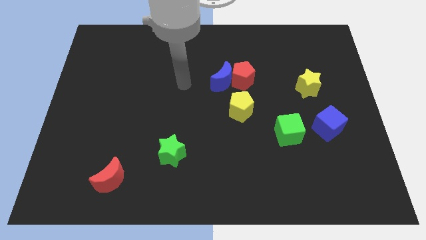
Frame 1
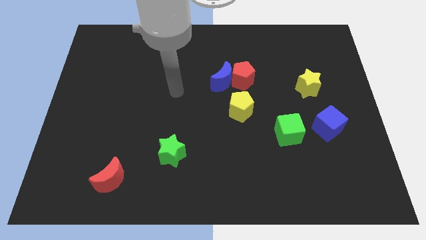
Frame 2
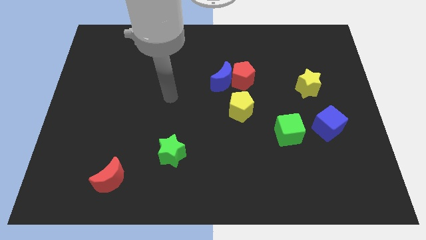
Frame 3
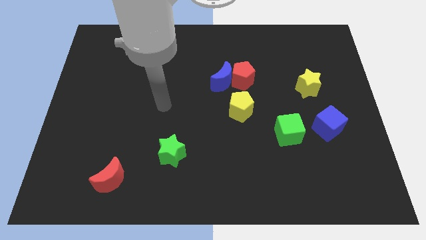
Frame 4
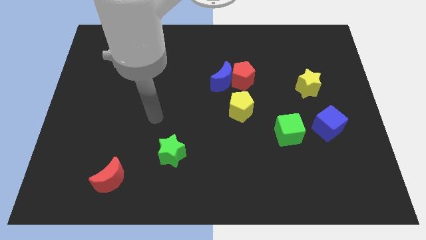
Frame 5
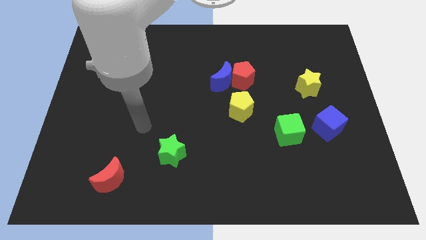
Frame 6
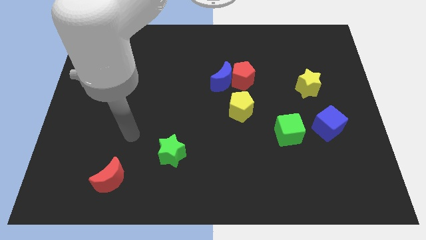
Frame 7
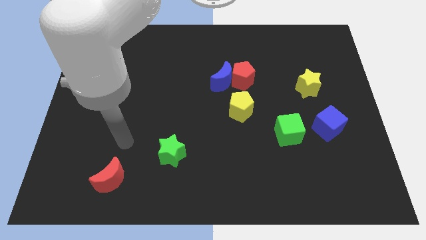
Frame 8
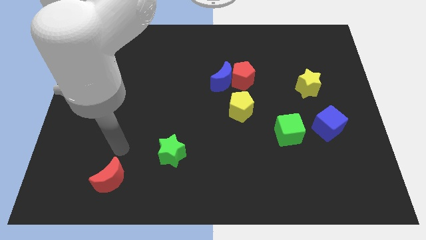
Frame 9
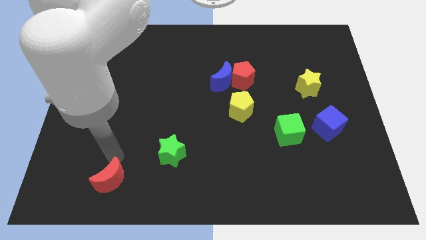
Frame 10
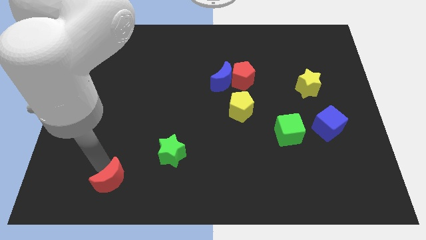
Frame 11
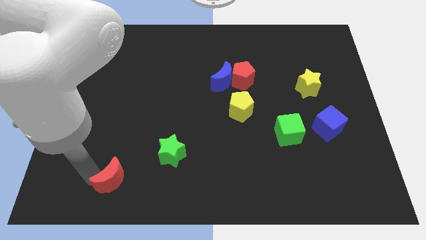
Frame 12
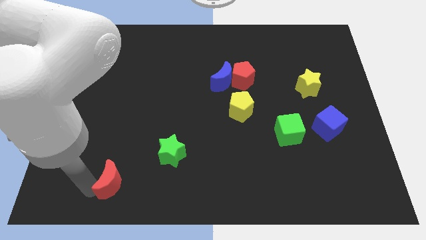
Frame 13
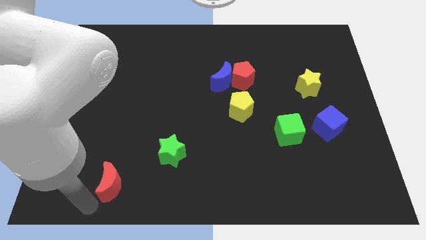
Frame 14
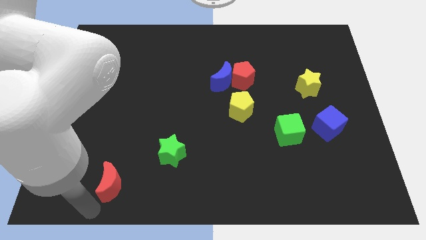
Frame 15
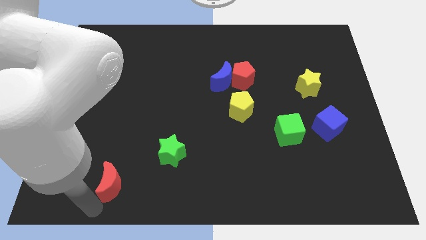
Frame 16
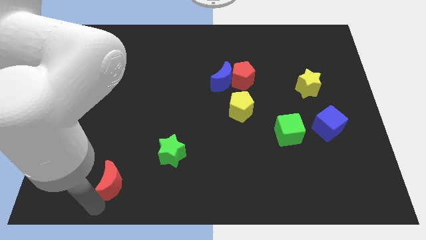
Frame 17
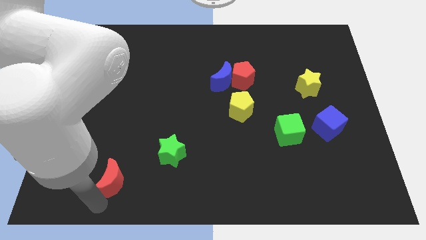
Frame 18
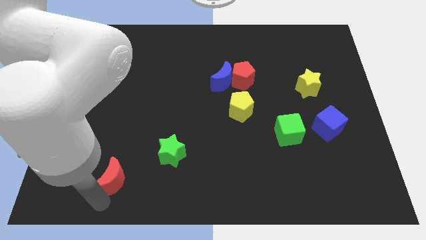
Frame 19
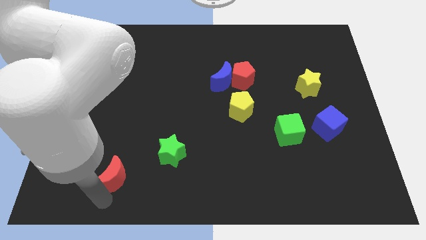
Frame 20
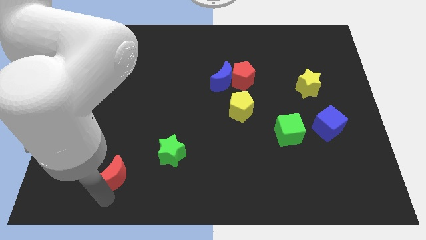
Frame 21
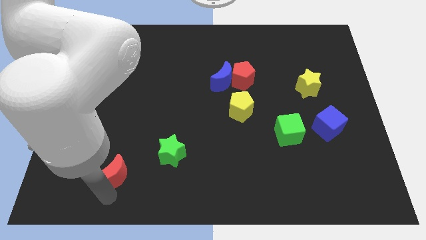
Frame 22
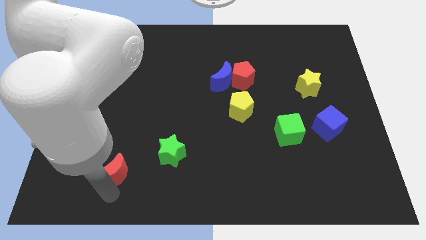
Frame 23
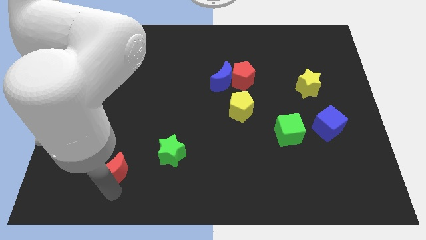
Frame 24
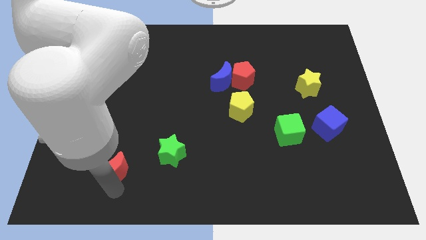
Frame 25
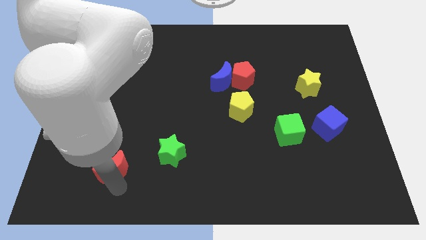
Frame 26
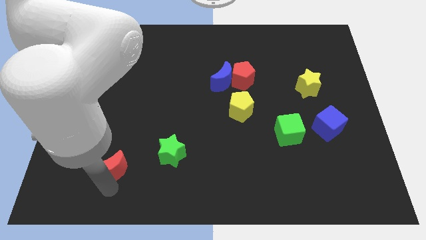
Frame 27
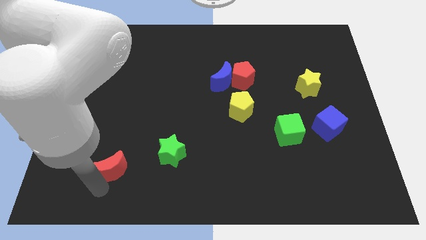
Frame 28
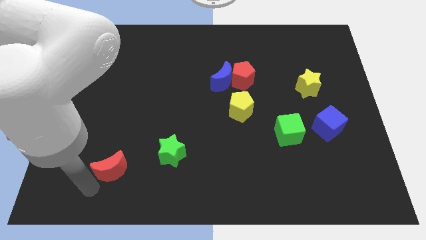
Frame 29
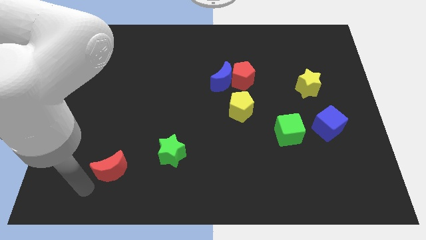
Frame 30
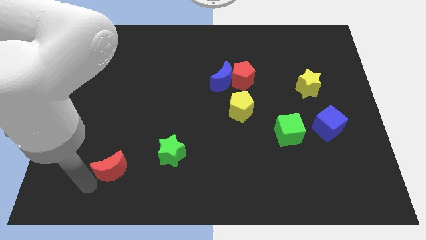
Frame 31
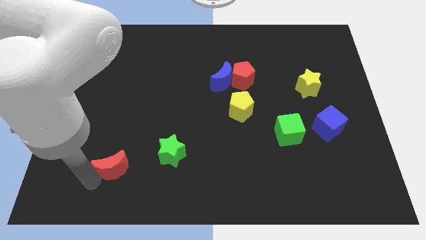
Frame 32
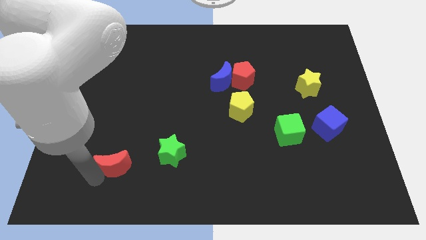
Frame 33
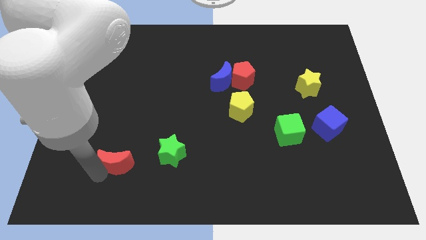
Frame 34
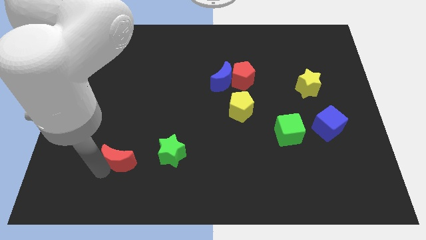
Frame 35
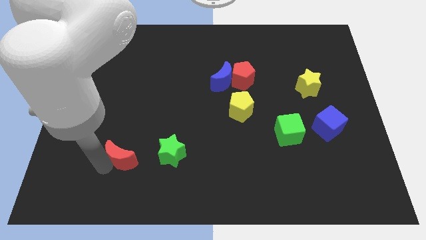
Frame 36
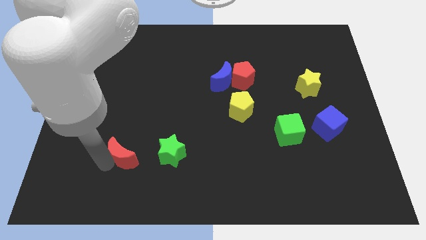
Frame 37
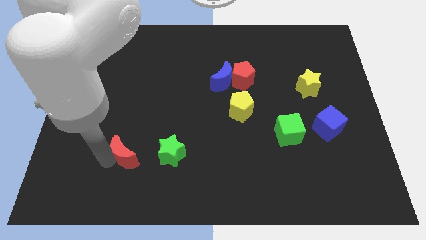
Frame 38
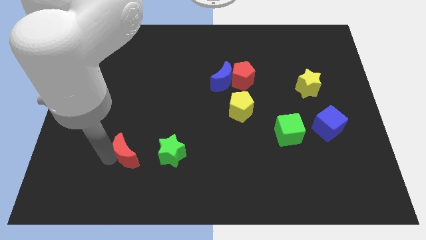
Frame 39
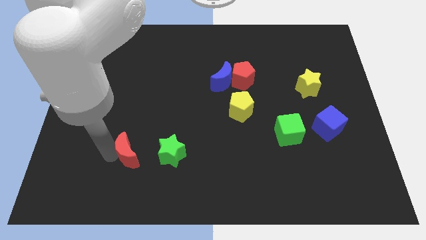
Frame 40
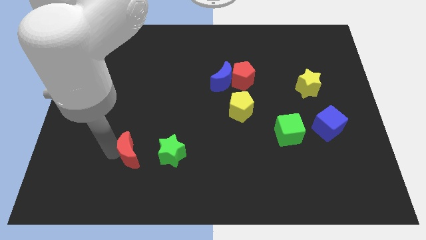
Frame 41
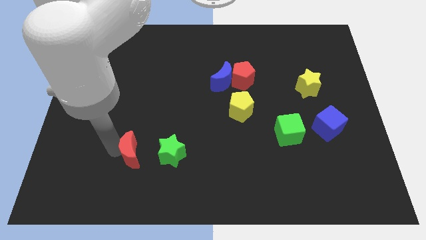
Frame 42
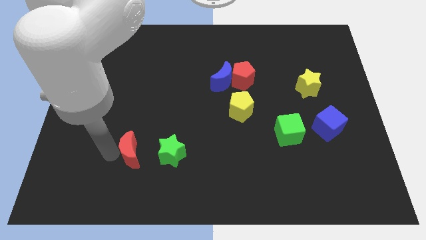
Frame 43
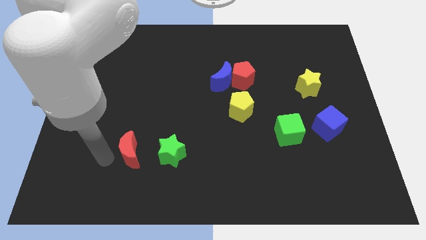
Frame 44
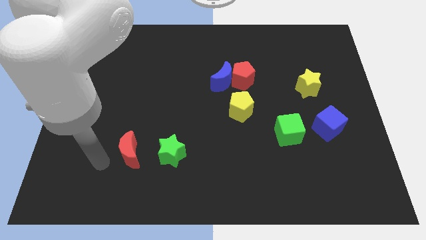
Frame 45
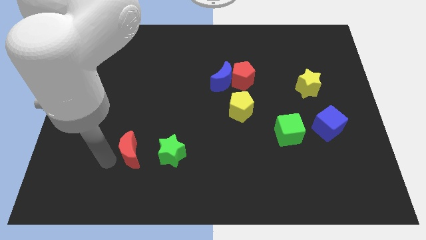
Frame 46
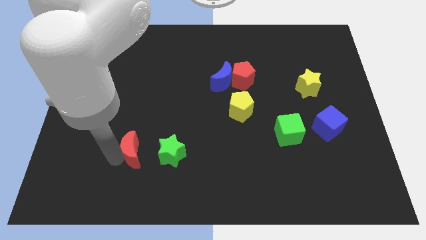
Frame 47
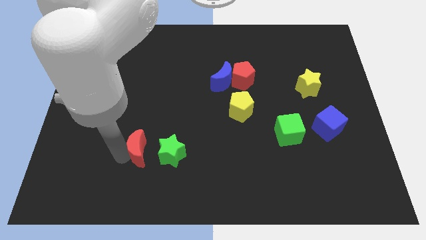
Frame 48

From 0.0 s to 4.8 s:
slightly push the red moon upwards and then right

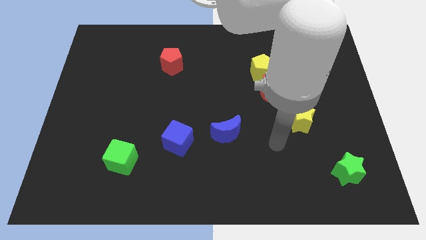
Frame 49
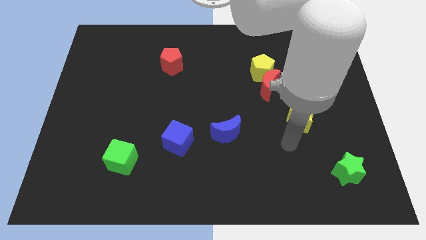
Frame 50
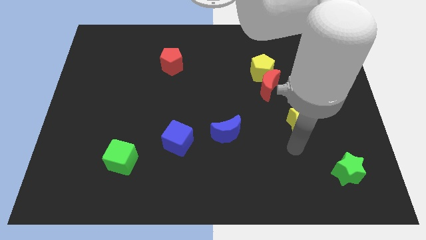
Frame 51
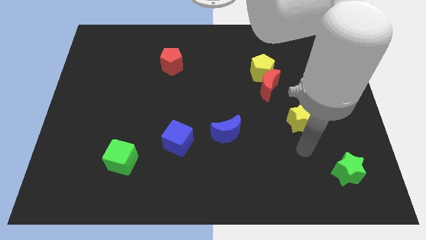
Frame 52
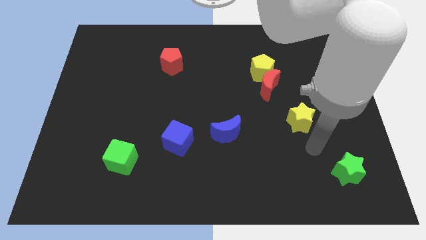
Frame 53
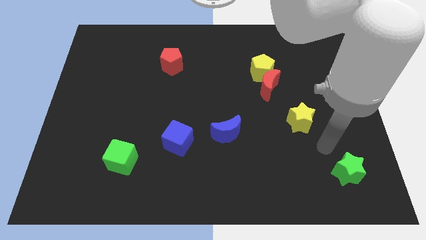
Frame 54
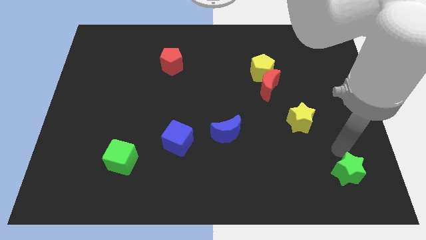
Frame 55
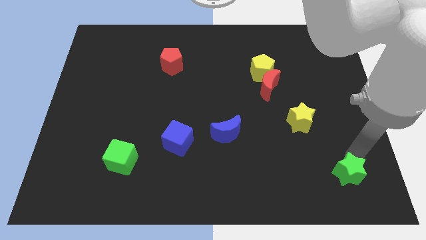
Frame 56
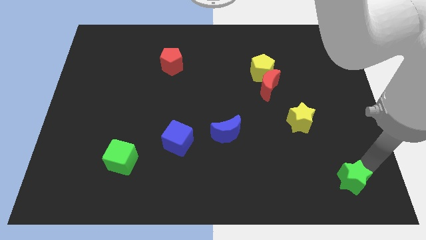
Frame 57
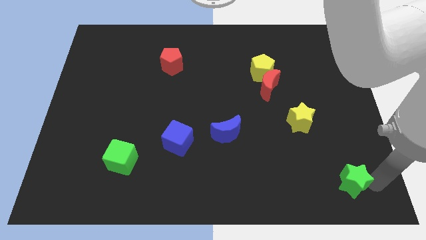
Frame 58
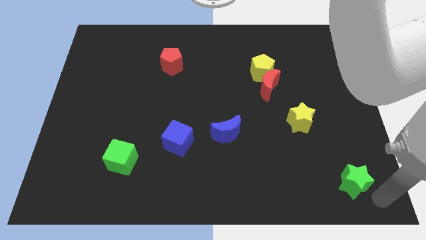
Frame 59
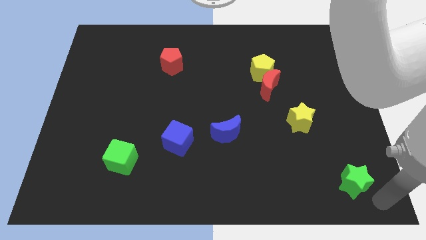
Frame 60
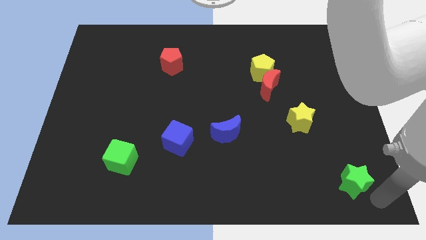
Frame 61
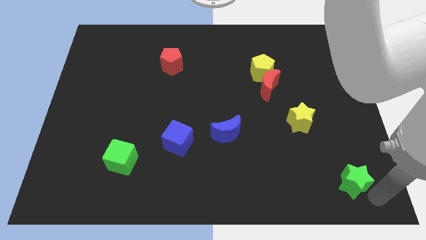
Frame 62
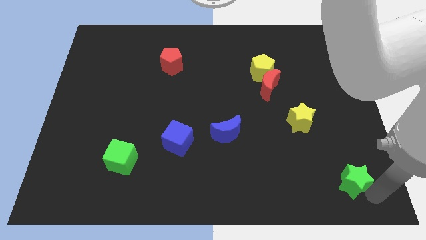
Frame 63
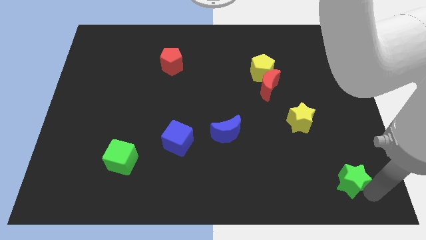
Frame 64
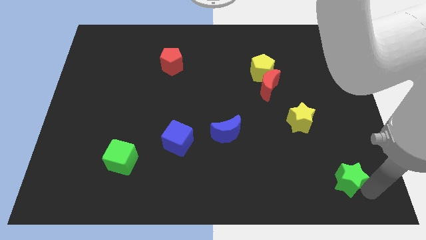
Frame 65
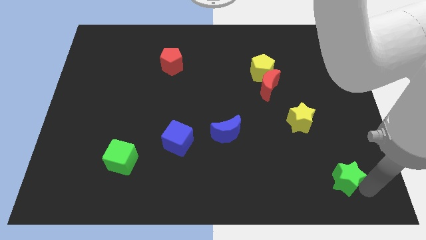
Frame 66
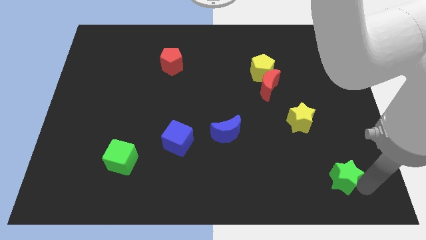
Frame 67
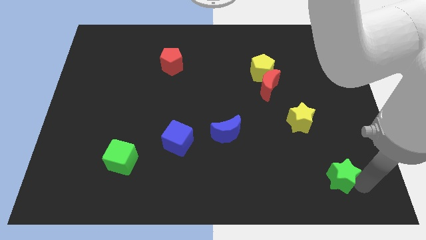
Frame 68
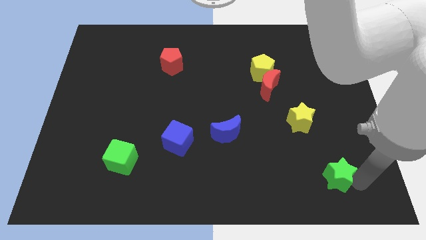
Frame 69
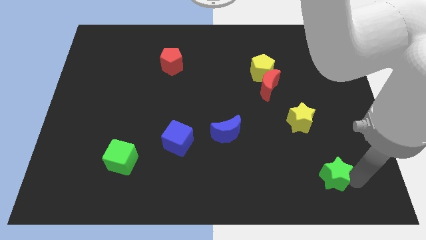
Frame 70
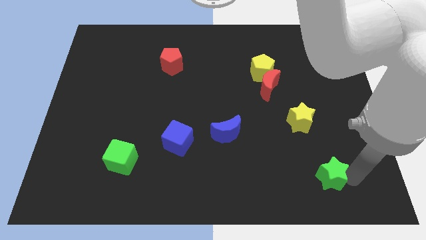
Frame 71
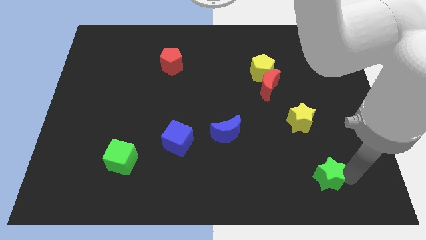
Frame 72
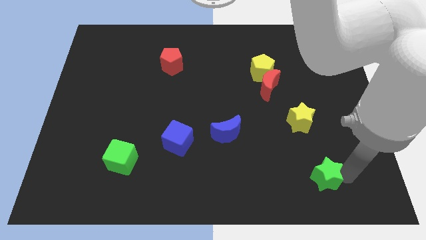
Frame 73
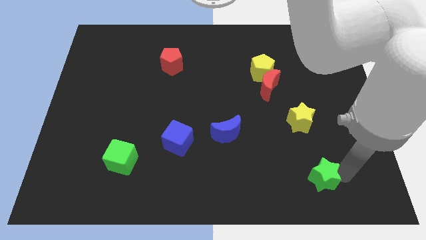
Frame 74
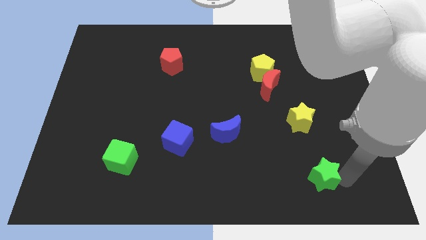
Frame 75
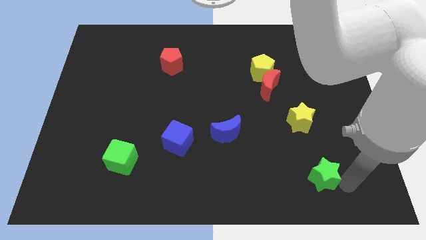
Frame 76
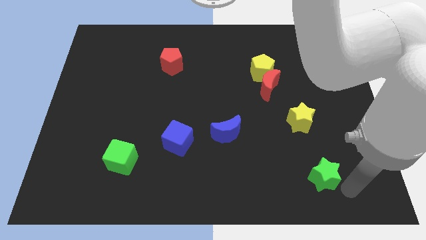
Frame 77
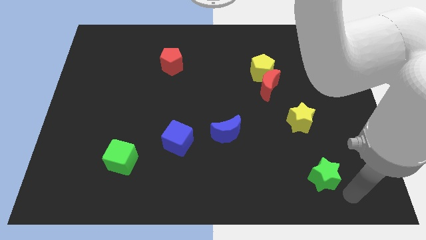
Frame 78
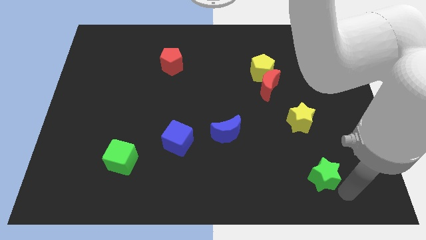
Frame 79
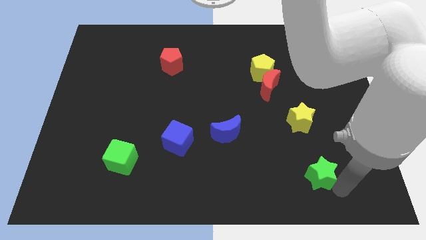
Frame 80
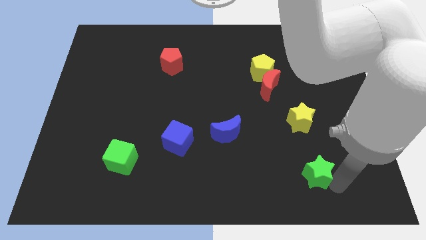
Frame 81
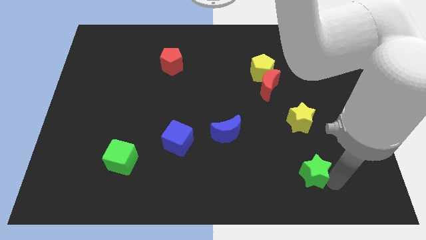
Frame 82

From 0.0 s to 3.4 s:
slightly slide the green star to the left
